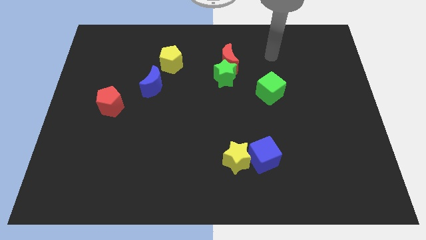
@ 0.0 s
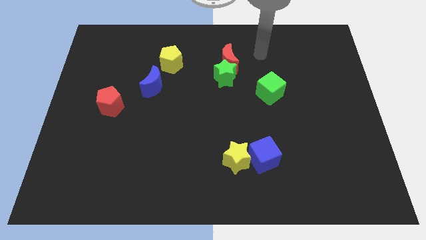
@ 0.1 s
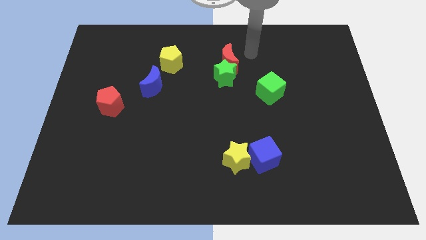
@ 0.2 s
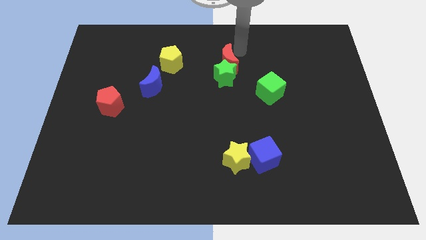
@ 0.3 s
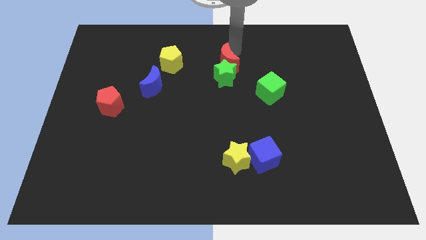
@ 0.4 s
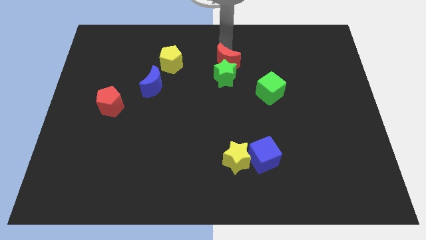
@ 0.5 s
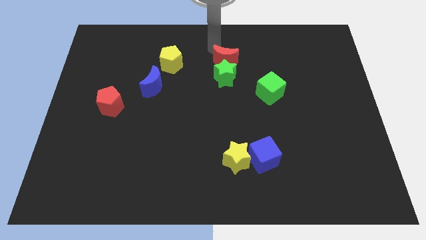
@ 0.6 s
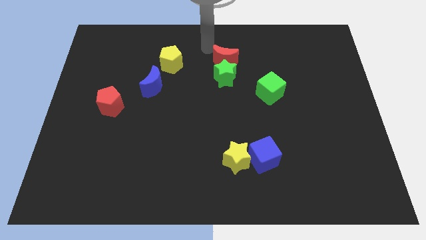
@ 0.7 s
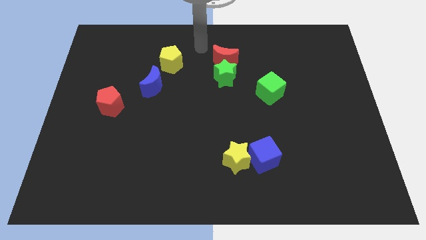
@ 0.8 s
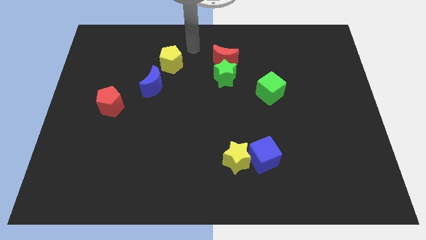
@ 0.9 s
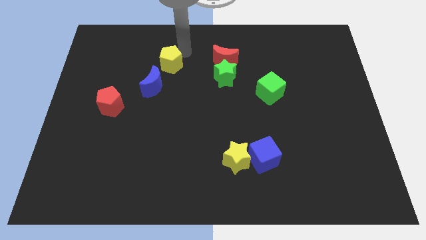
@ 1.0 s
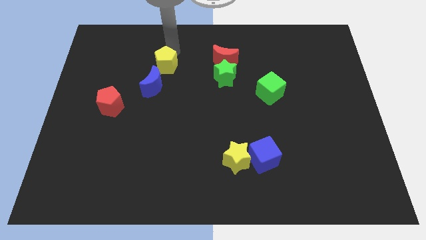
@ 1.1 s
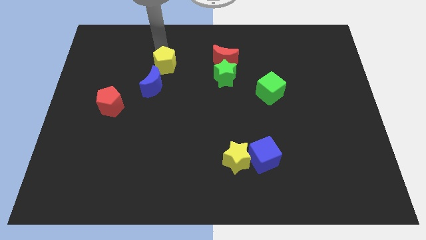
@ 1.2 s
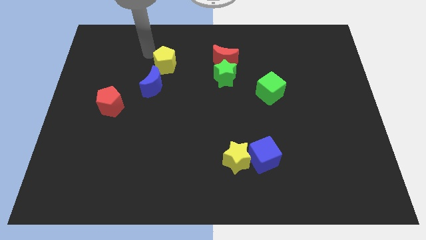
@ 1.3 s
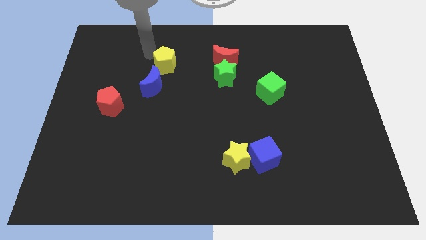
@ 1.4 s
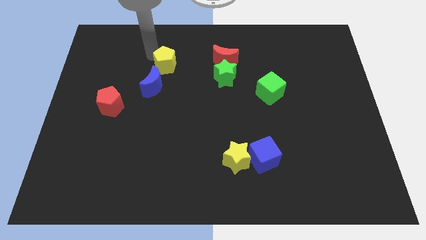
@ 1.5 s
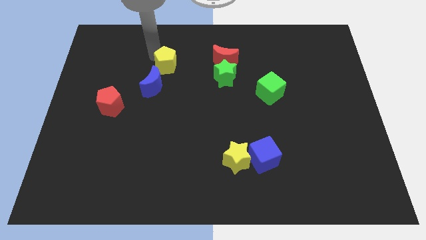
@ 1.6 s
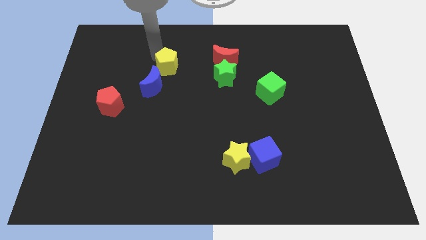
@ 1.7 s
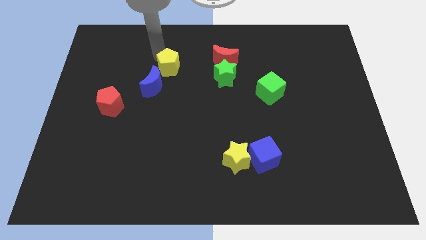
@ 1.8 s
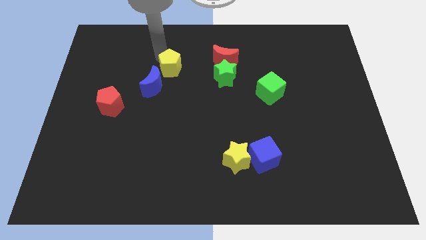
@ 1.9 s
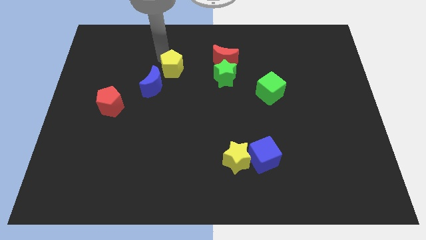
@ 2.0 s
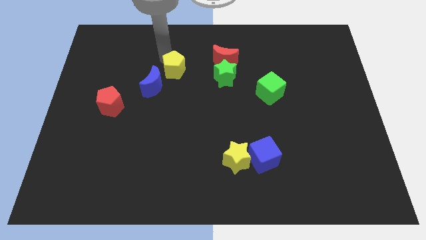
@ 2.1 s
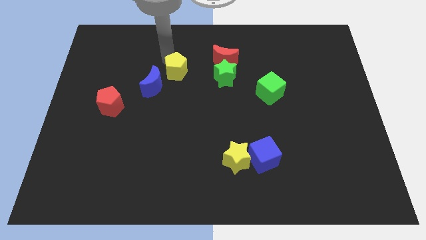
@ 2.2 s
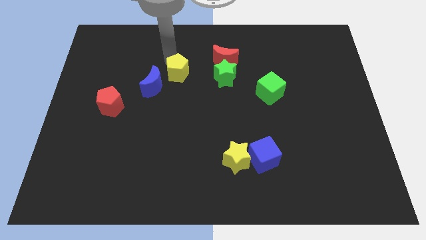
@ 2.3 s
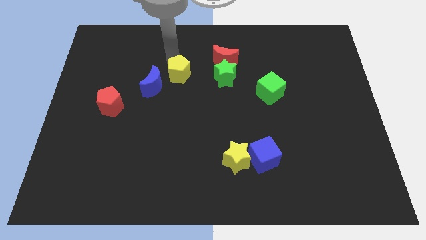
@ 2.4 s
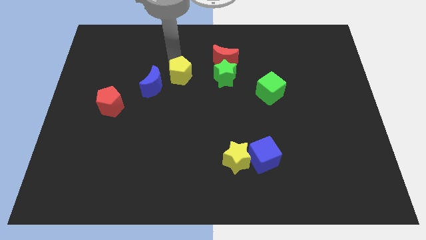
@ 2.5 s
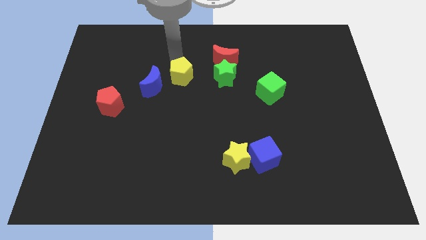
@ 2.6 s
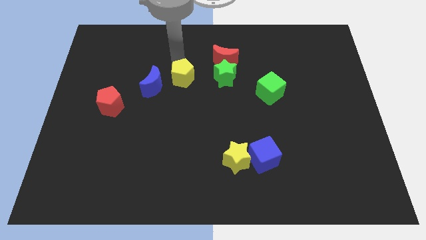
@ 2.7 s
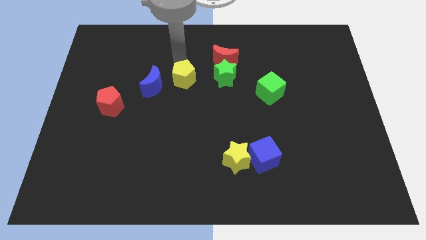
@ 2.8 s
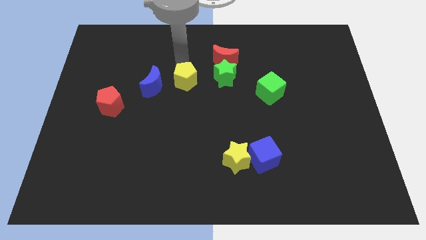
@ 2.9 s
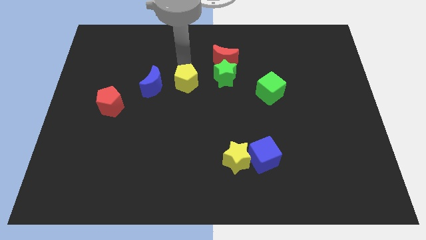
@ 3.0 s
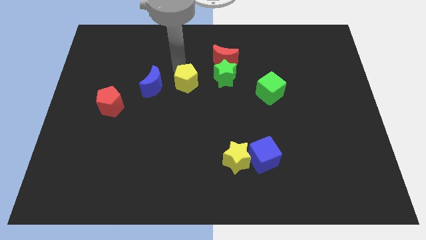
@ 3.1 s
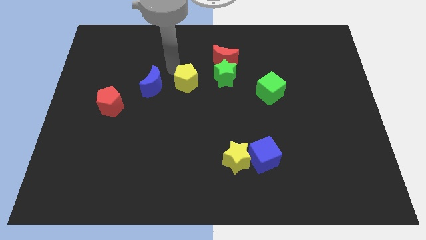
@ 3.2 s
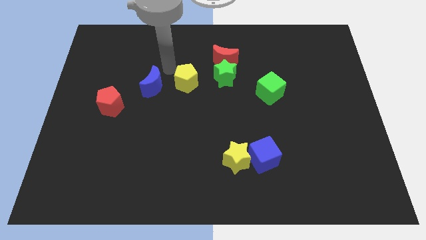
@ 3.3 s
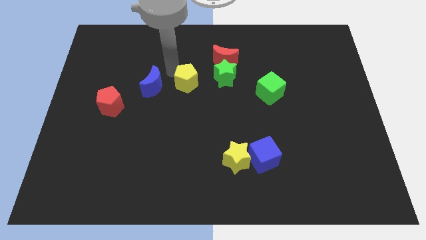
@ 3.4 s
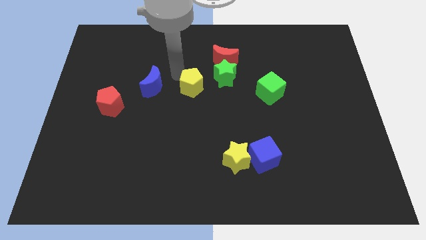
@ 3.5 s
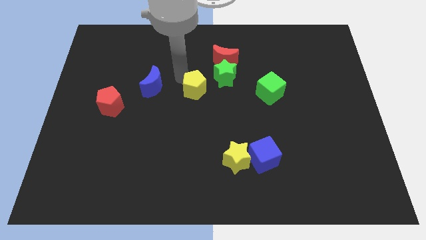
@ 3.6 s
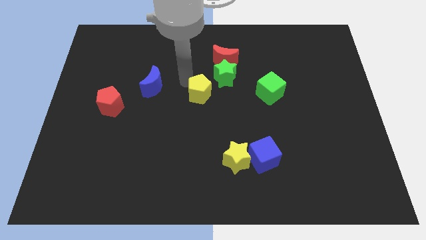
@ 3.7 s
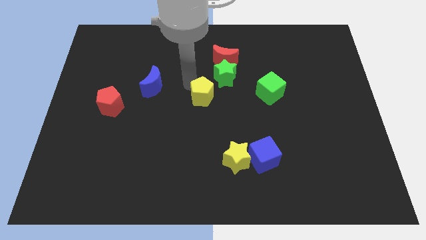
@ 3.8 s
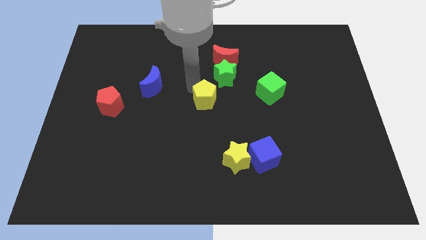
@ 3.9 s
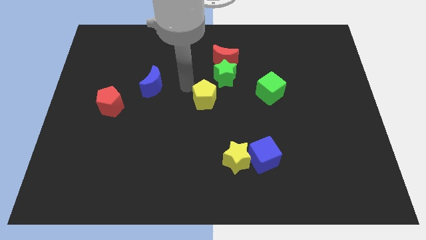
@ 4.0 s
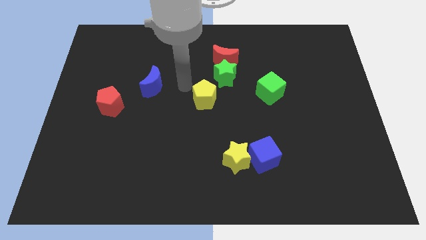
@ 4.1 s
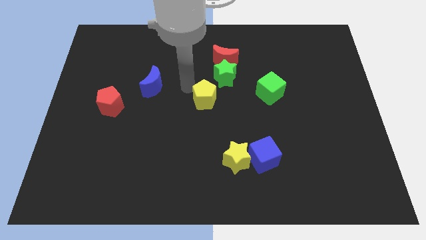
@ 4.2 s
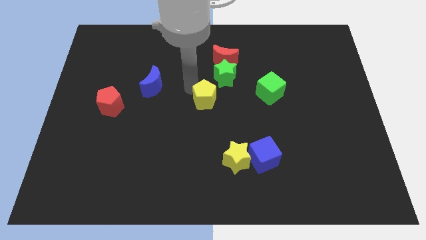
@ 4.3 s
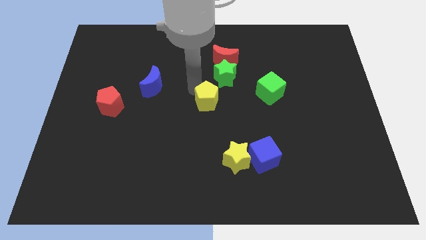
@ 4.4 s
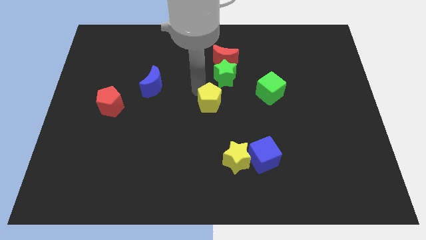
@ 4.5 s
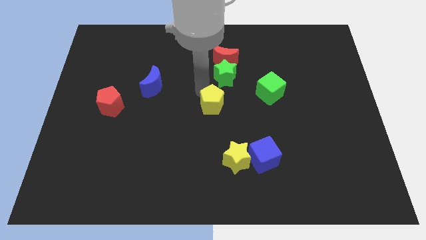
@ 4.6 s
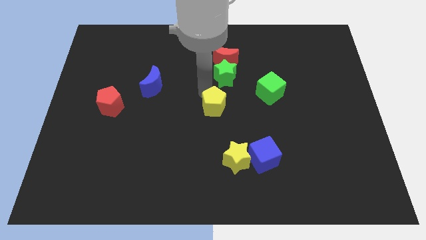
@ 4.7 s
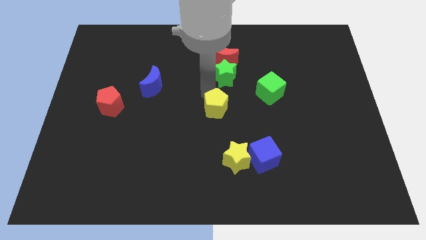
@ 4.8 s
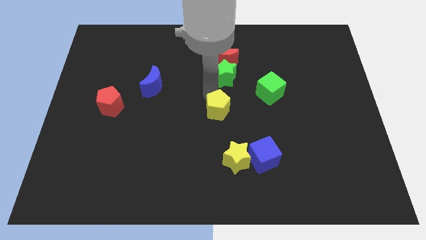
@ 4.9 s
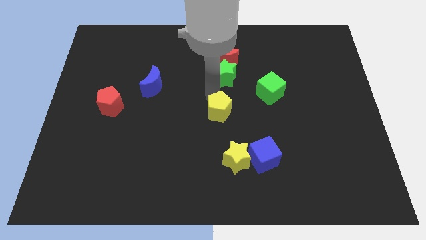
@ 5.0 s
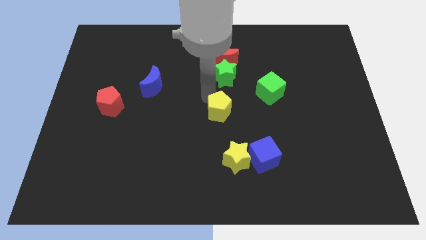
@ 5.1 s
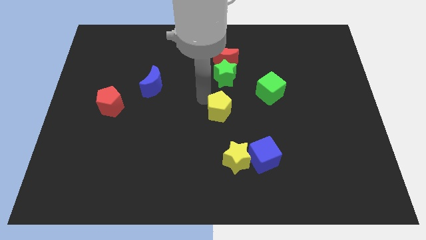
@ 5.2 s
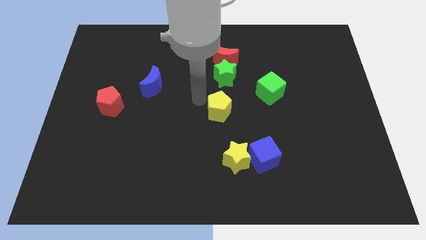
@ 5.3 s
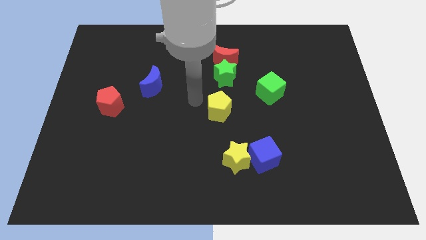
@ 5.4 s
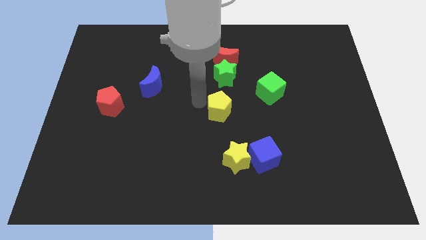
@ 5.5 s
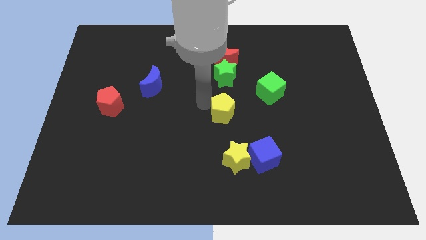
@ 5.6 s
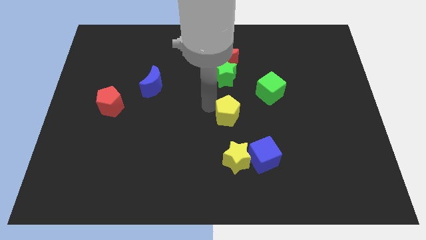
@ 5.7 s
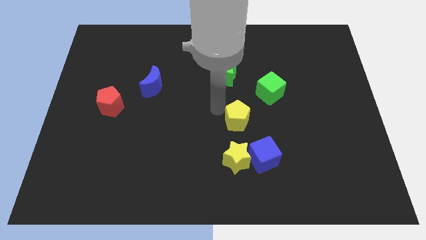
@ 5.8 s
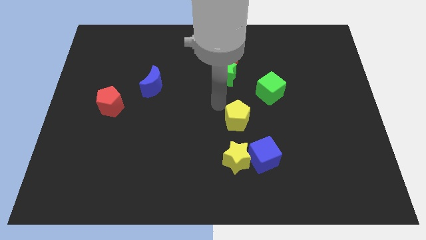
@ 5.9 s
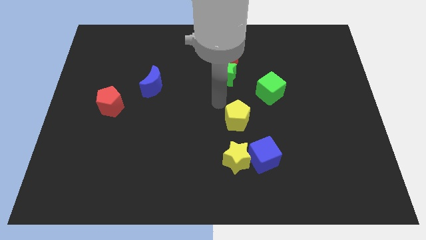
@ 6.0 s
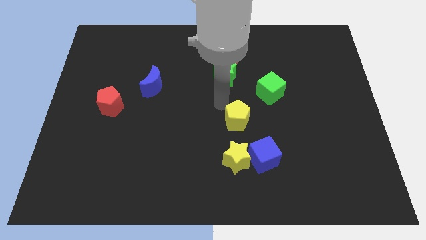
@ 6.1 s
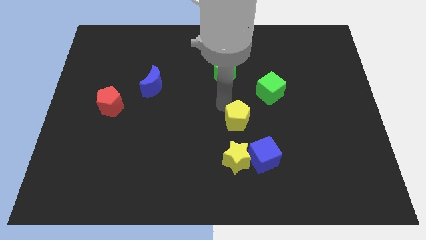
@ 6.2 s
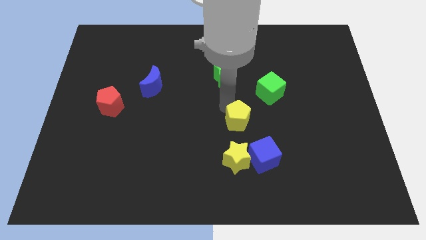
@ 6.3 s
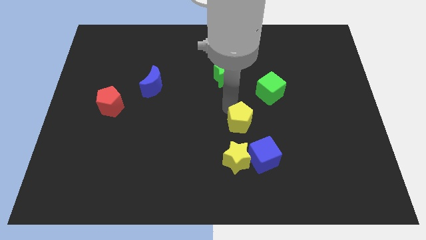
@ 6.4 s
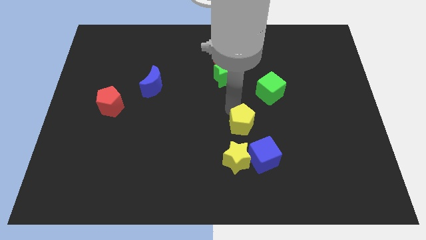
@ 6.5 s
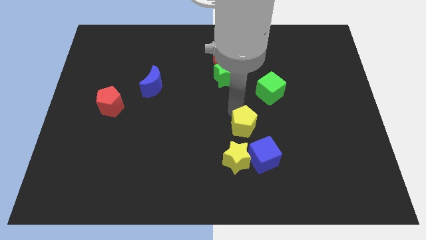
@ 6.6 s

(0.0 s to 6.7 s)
slide the yellow pentagon to the top right of the yellow star

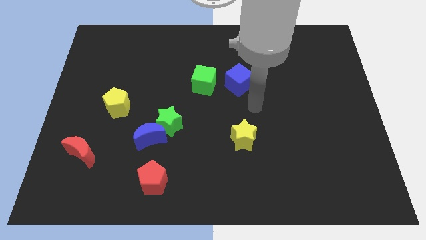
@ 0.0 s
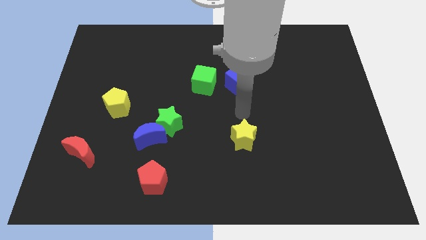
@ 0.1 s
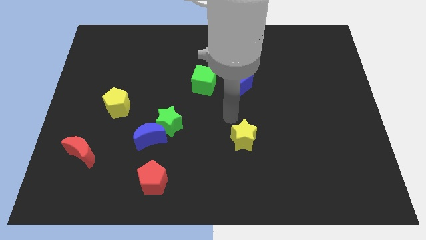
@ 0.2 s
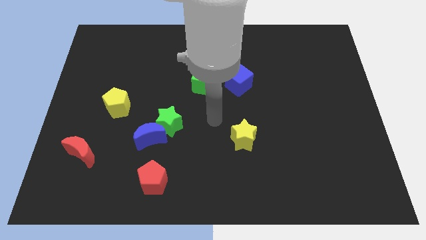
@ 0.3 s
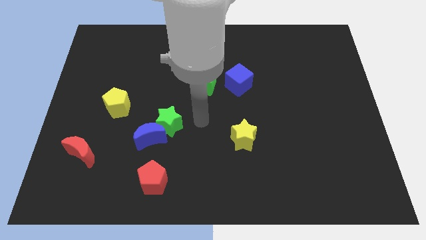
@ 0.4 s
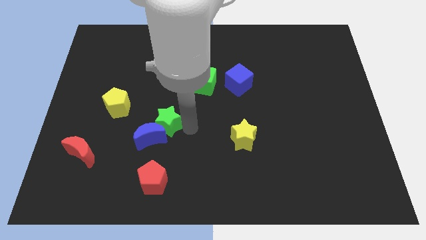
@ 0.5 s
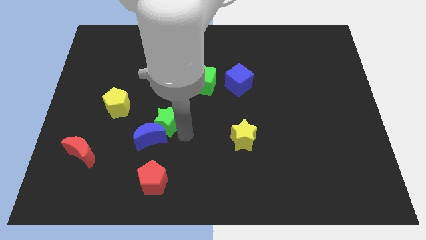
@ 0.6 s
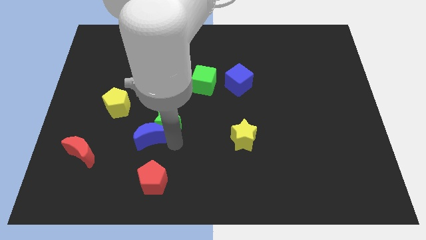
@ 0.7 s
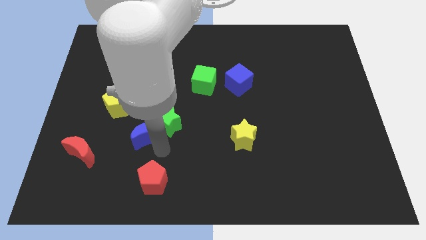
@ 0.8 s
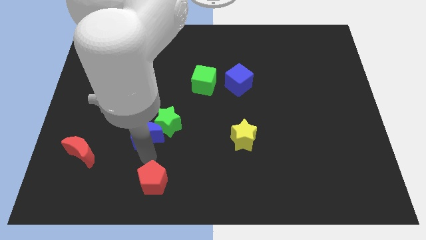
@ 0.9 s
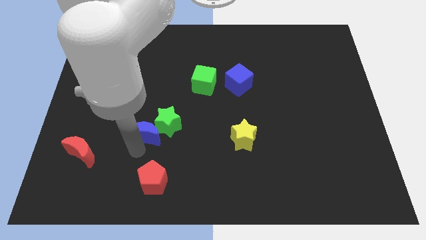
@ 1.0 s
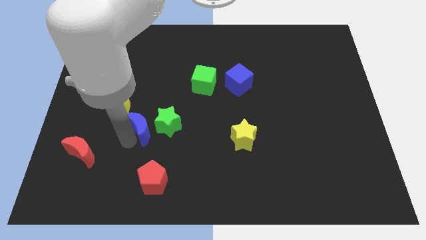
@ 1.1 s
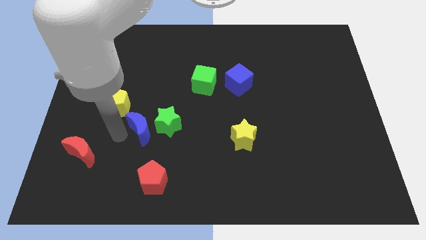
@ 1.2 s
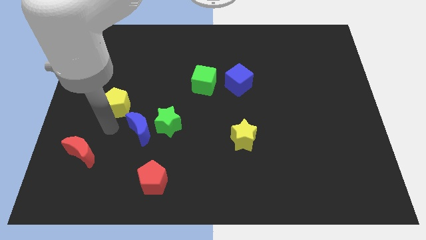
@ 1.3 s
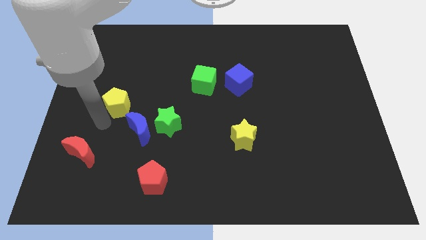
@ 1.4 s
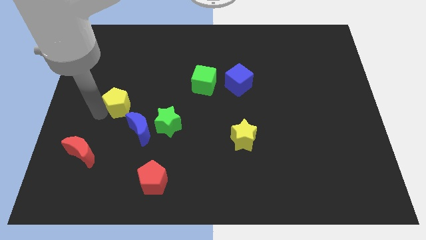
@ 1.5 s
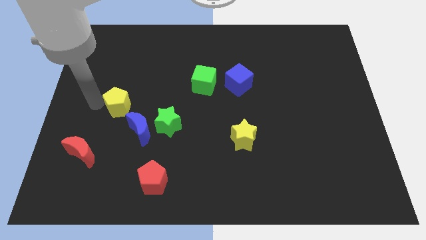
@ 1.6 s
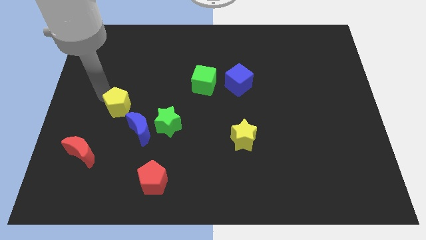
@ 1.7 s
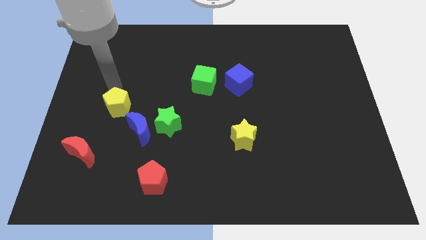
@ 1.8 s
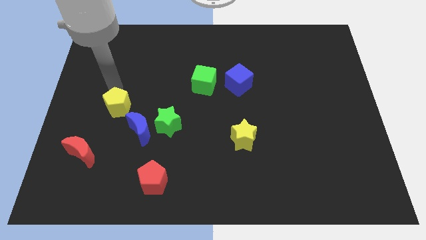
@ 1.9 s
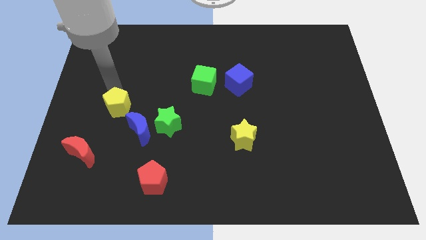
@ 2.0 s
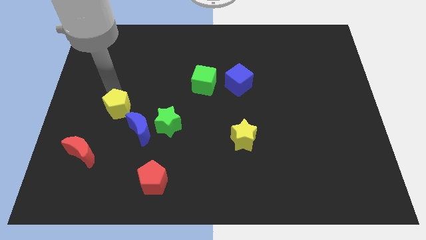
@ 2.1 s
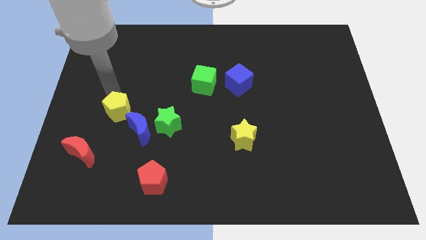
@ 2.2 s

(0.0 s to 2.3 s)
slide the yellow pentagon just left of the green star
